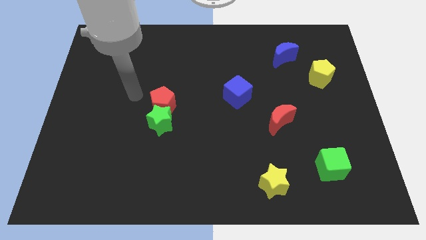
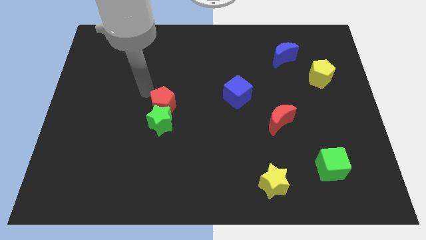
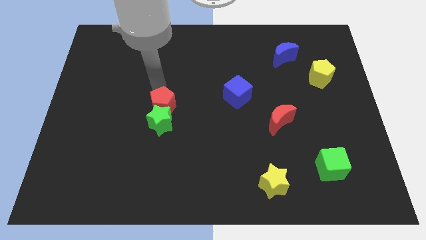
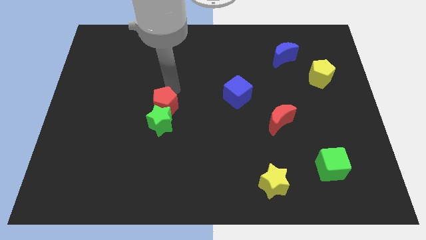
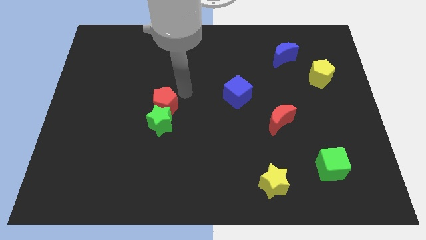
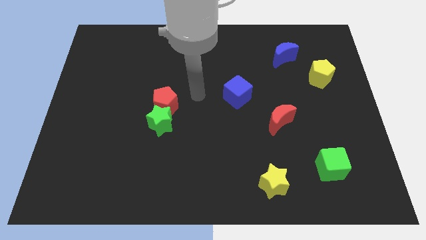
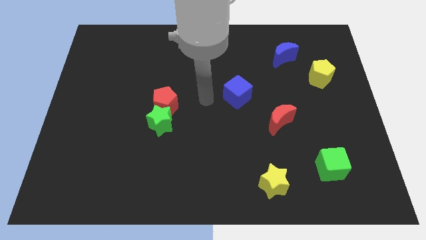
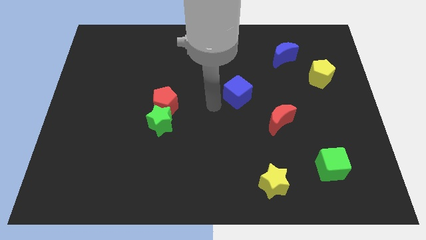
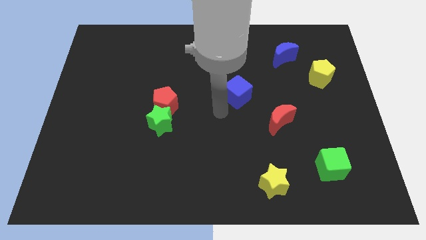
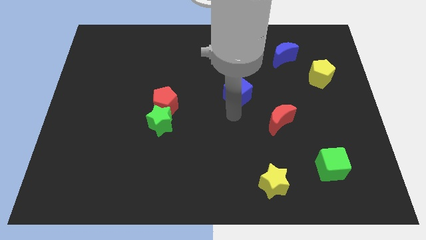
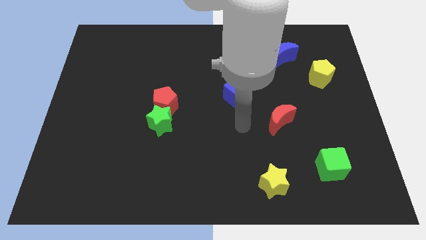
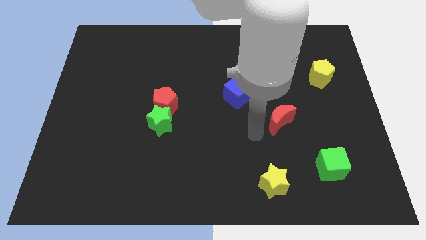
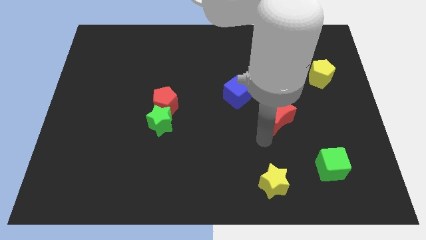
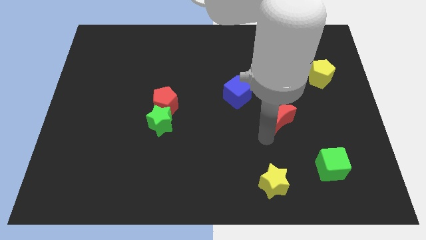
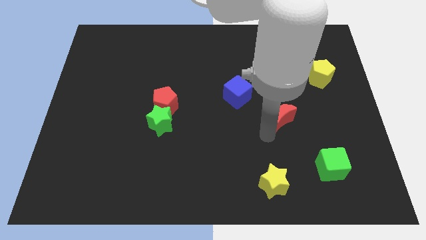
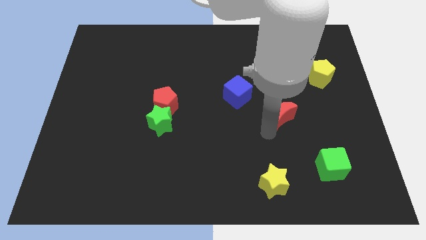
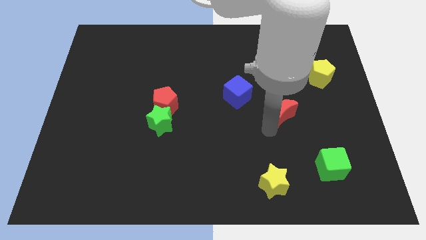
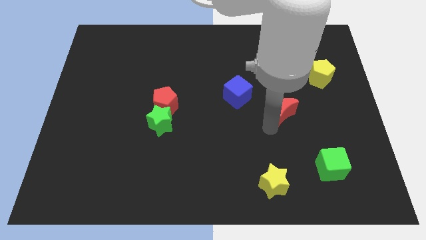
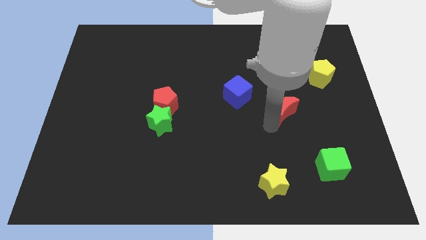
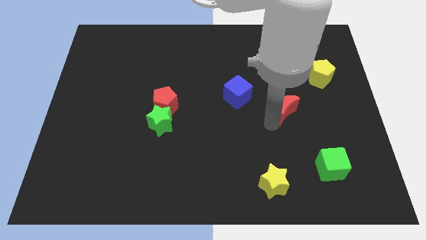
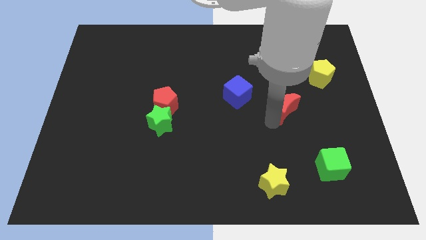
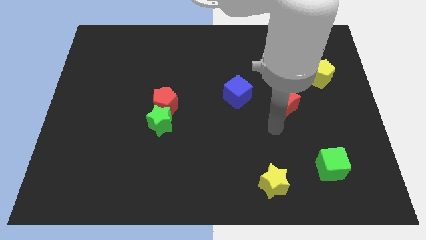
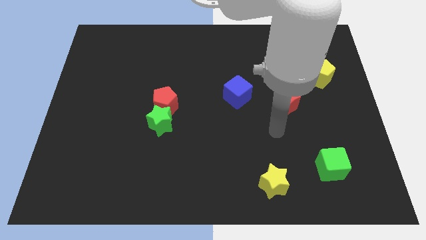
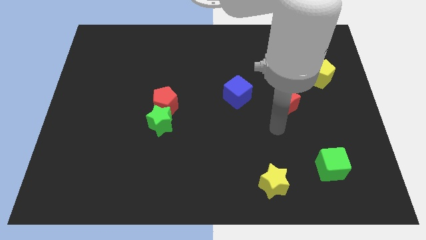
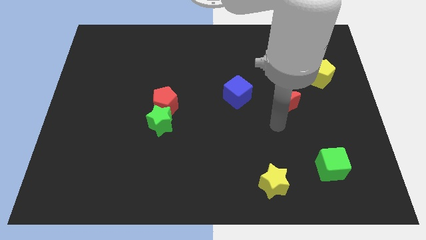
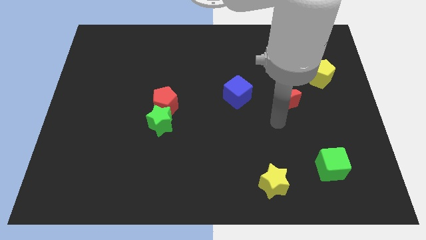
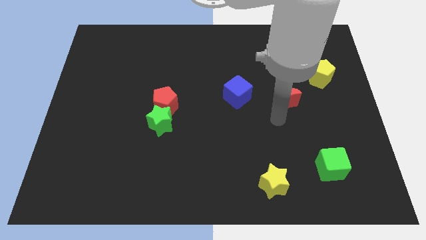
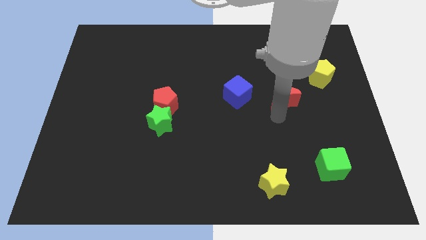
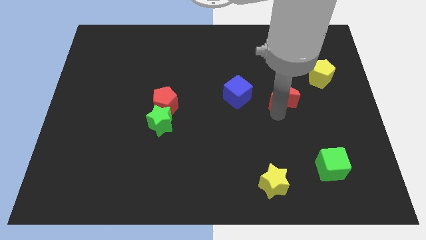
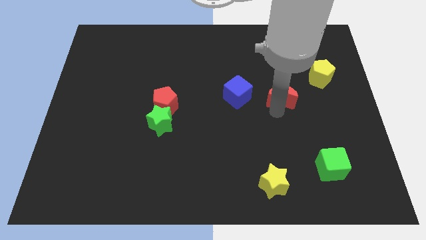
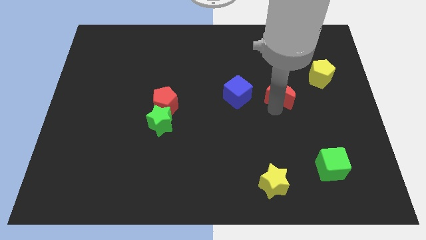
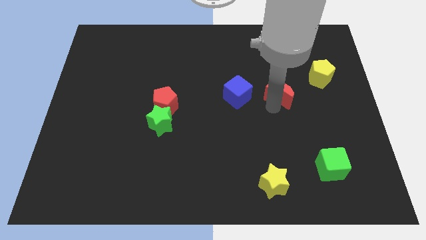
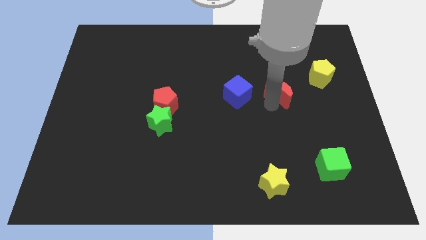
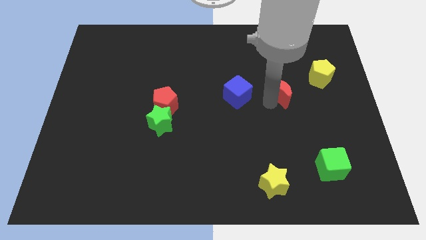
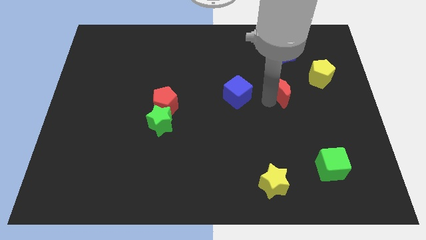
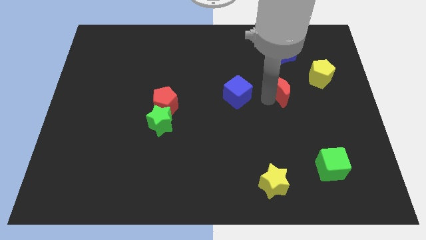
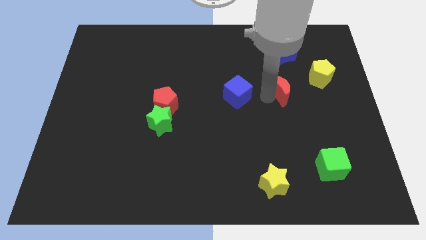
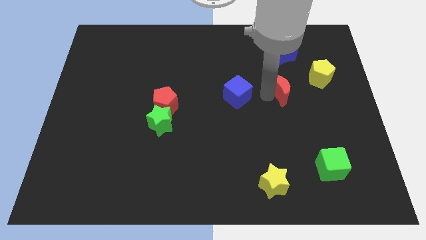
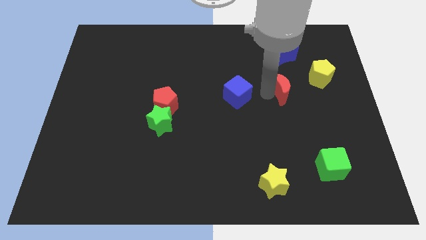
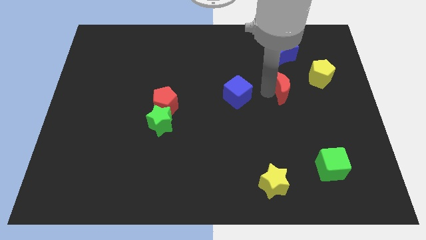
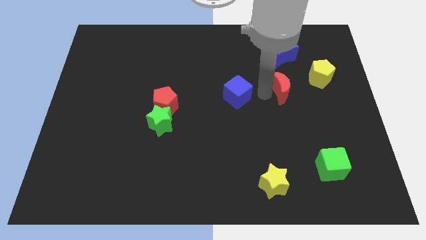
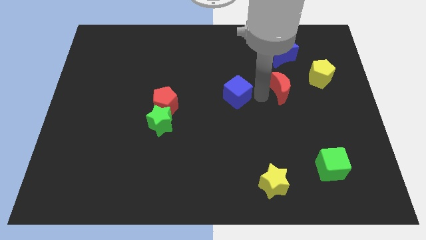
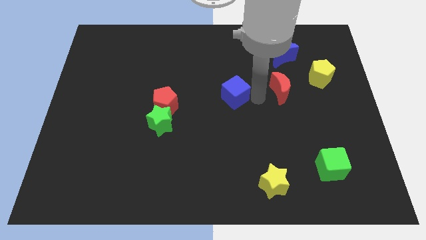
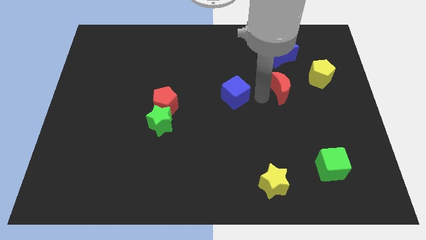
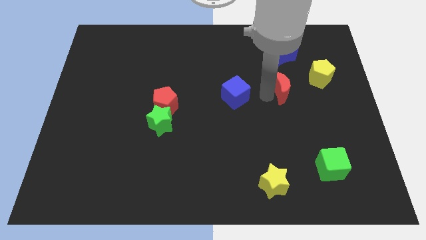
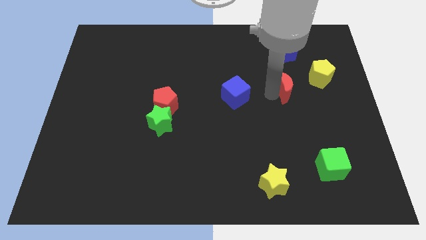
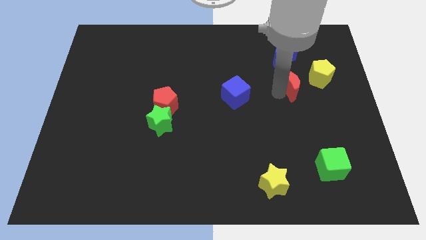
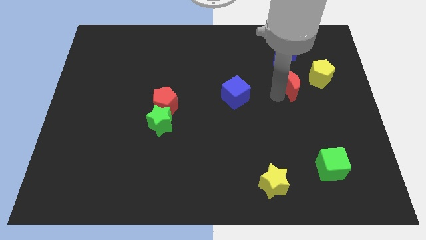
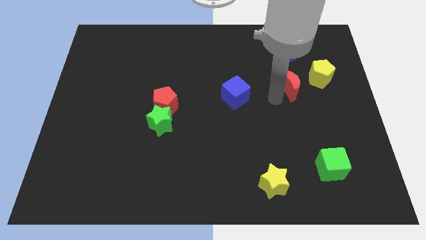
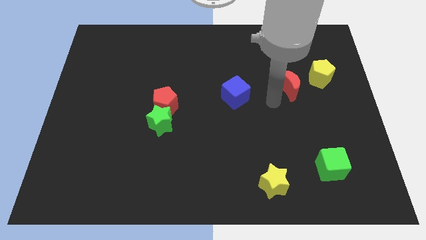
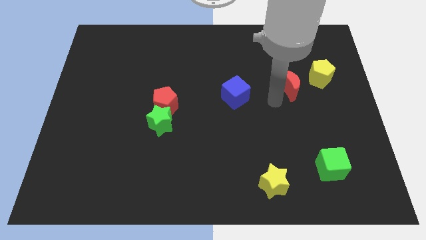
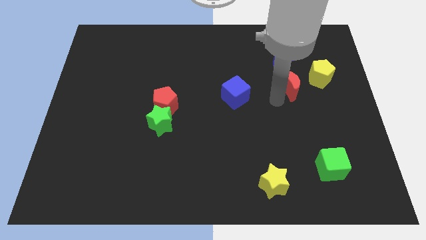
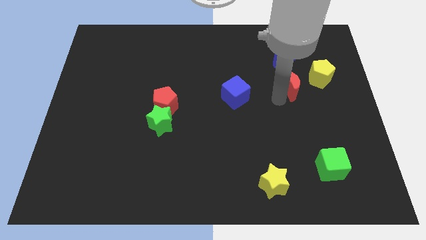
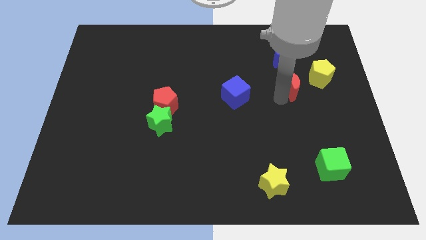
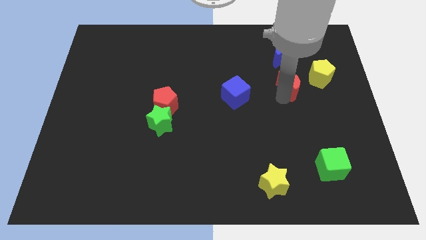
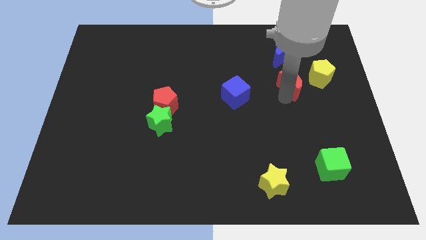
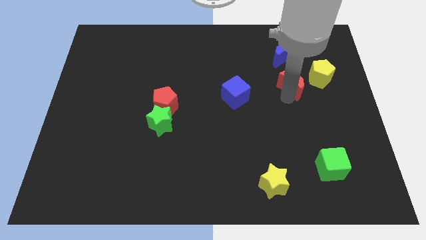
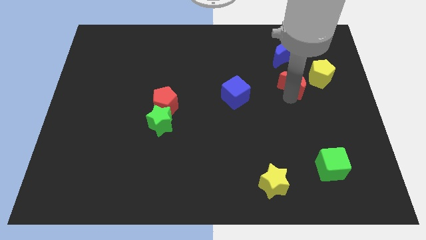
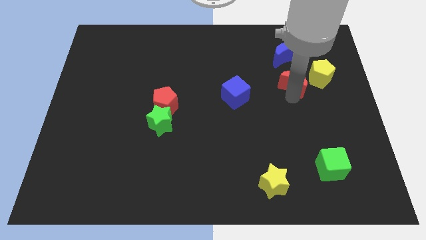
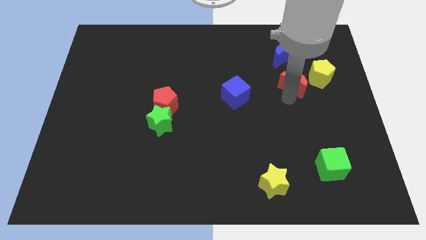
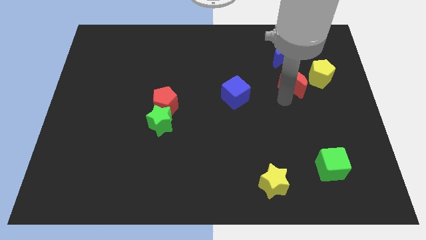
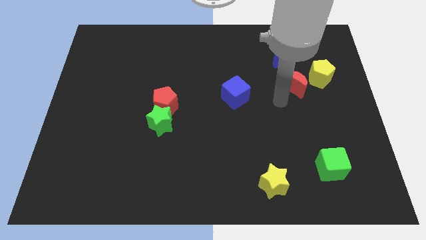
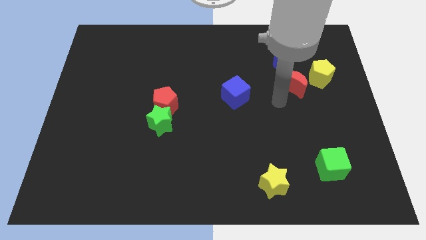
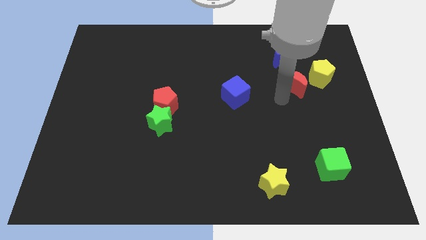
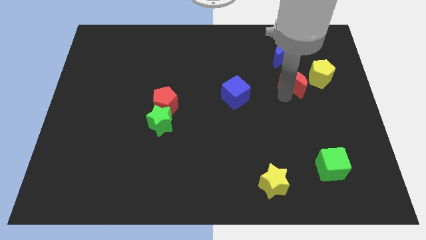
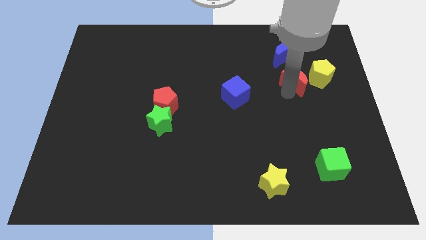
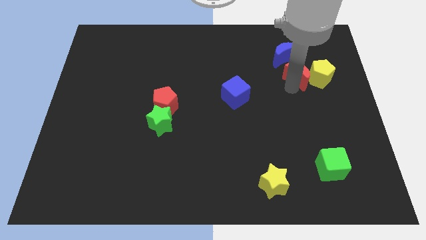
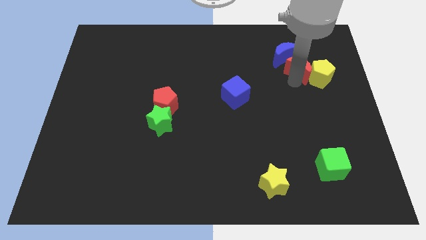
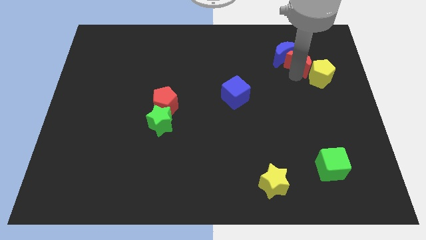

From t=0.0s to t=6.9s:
push the red moon right of the blue moon

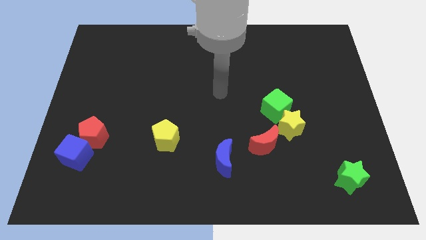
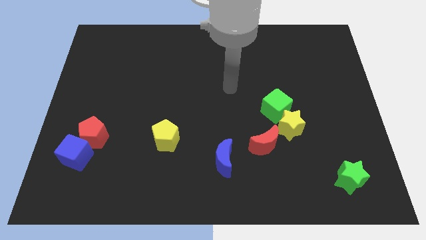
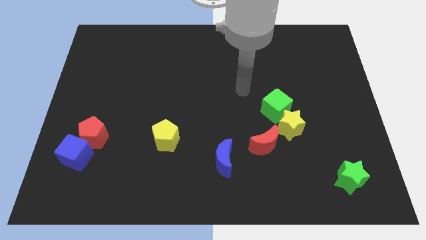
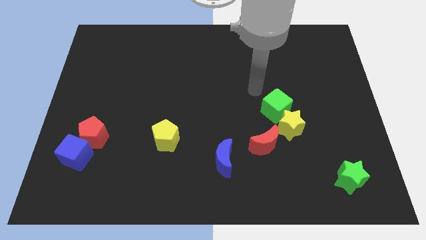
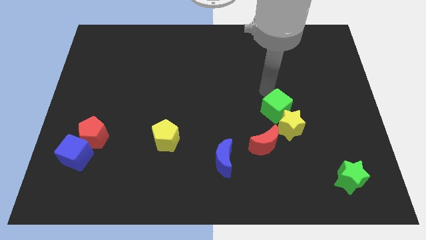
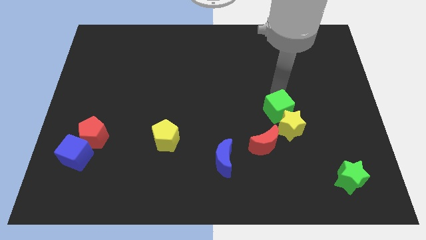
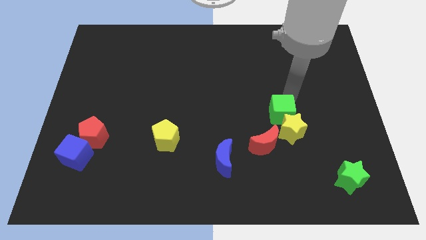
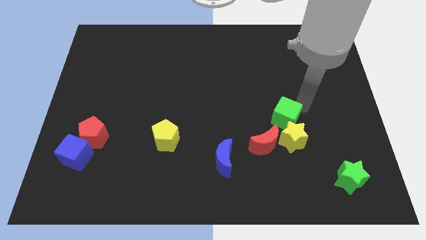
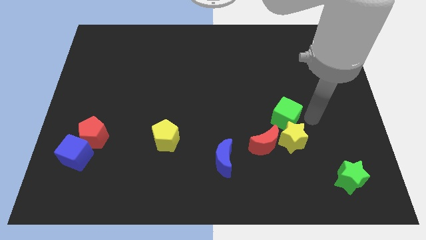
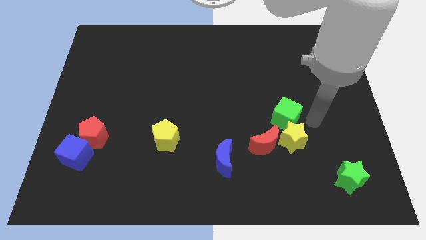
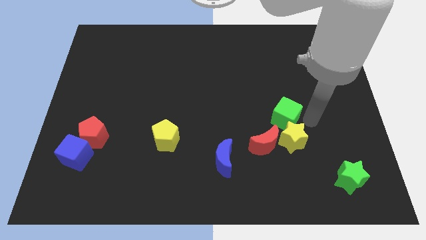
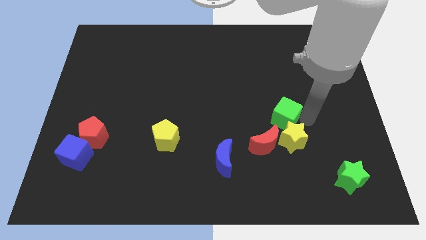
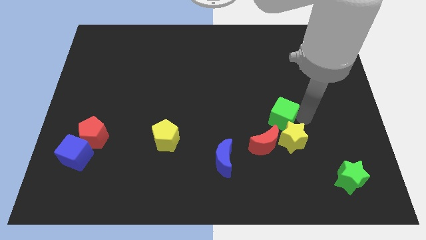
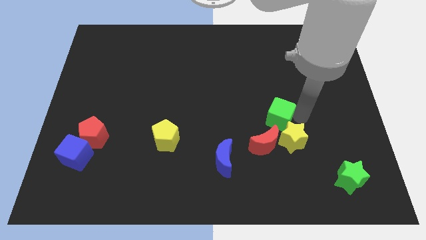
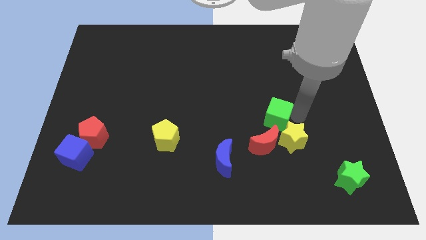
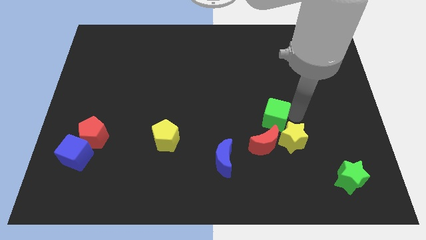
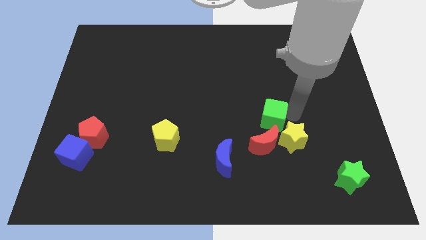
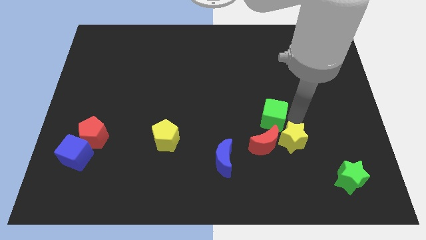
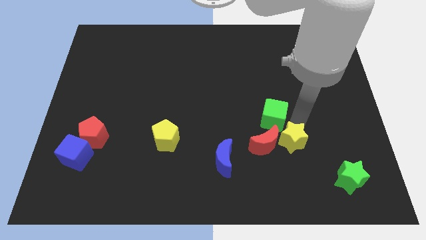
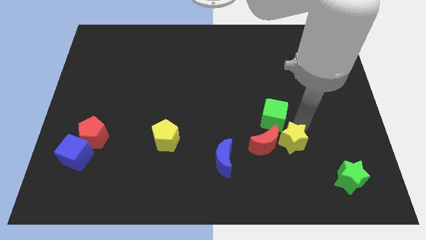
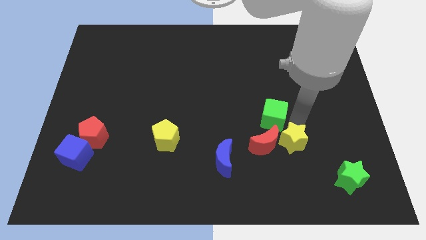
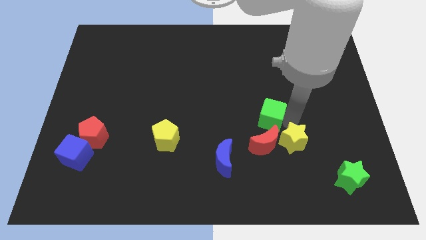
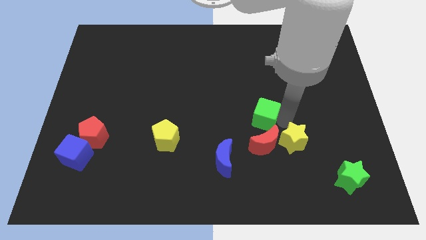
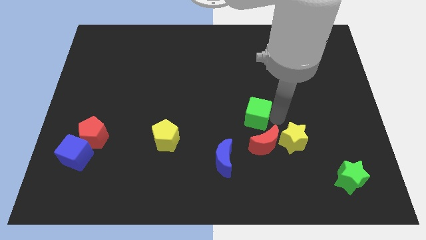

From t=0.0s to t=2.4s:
slide the green cube to the top left side of the red moon
